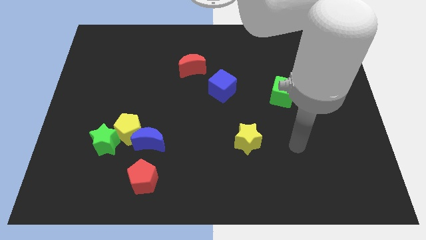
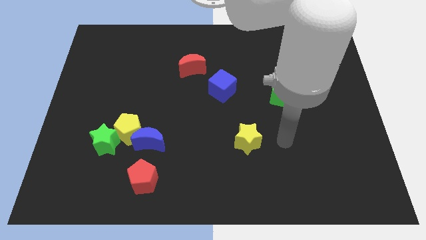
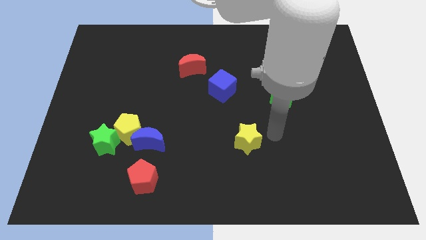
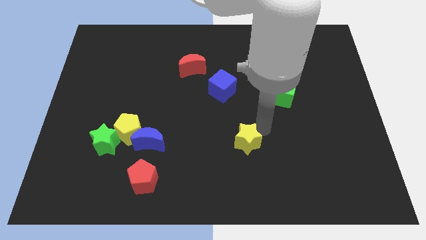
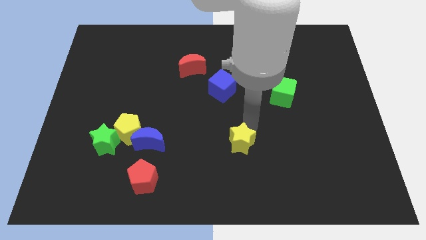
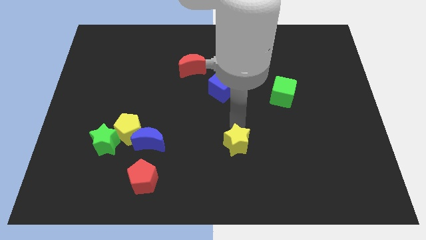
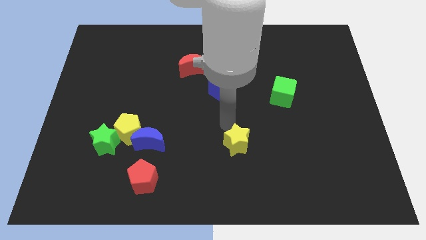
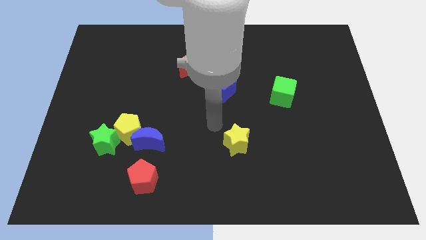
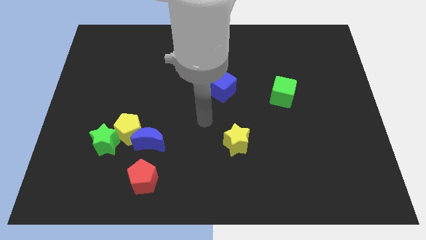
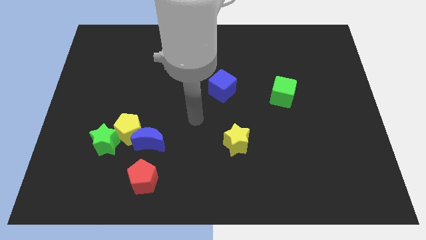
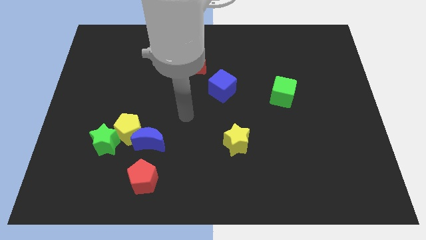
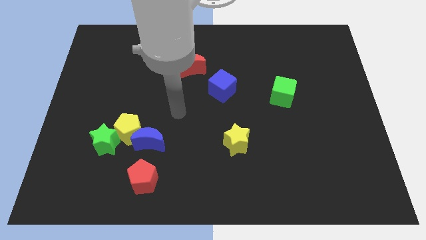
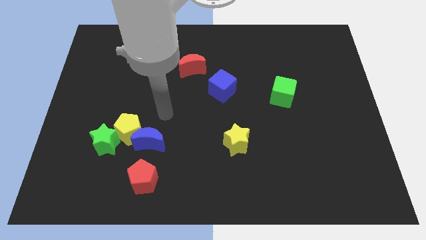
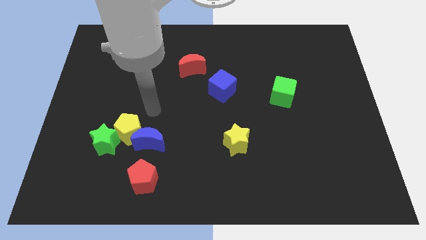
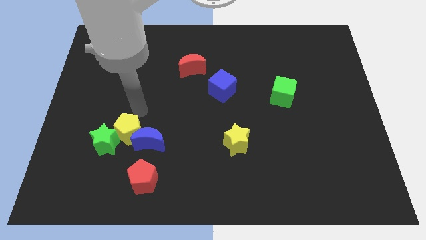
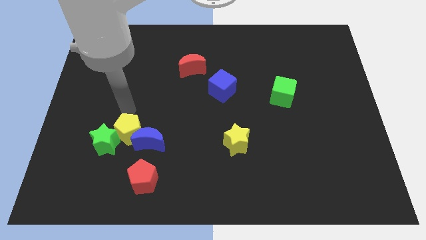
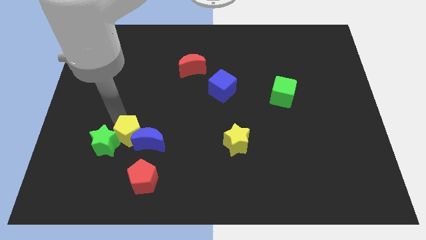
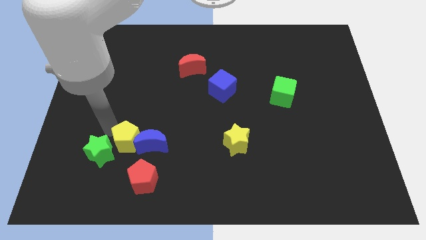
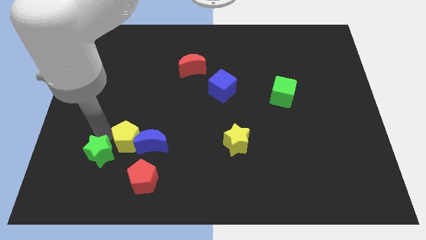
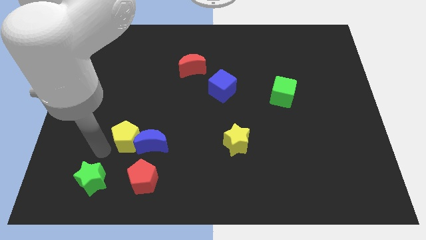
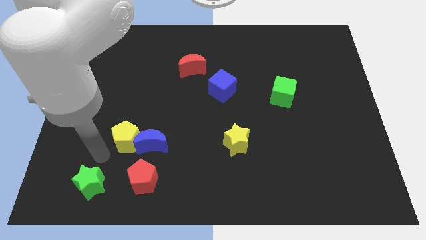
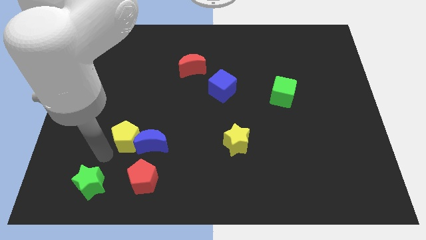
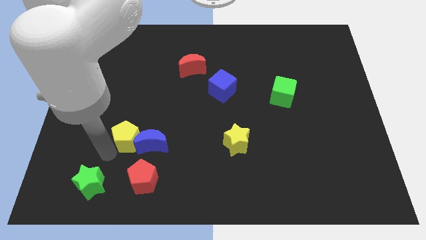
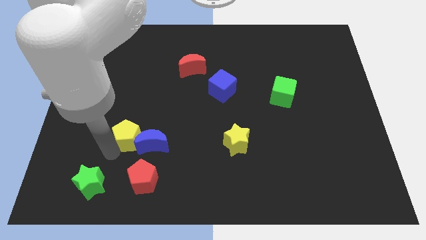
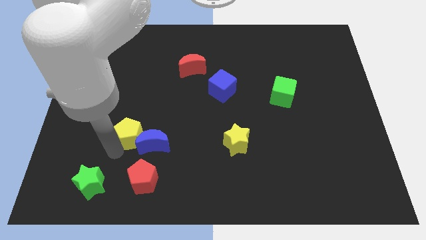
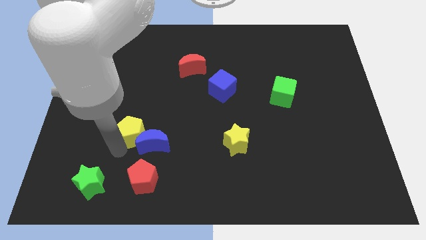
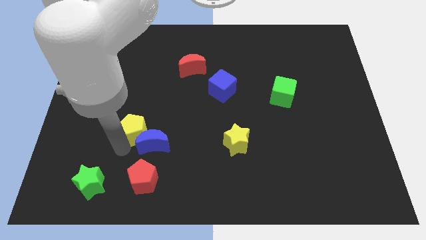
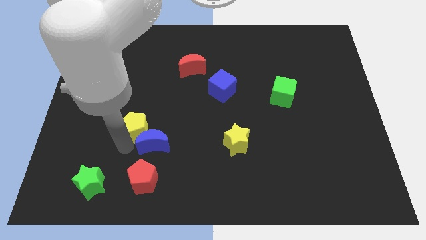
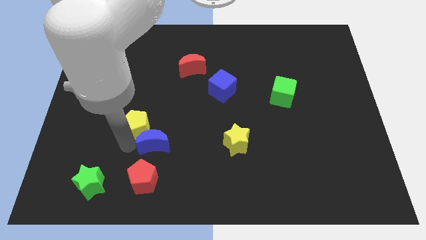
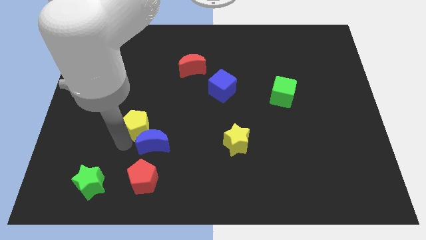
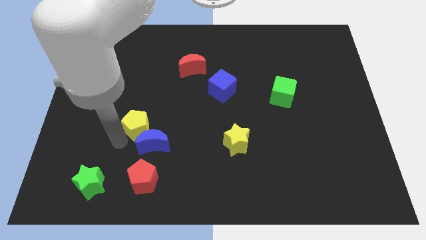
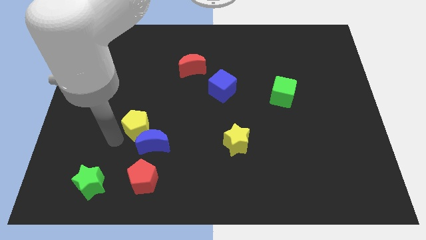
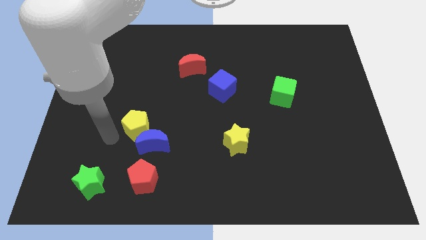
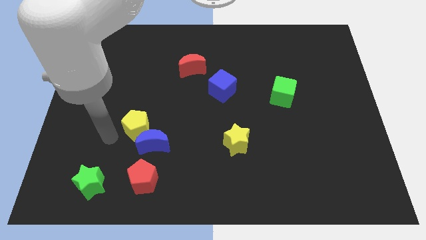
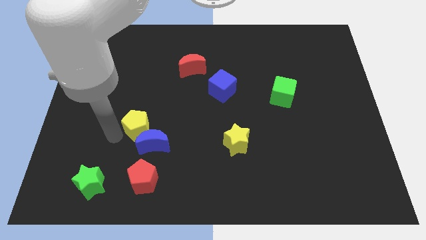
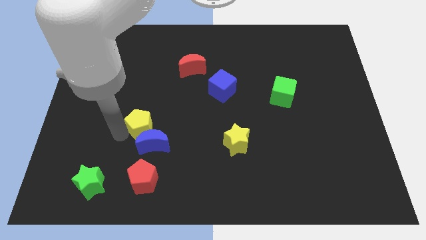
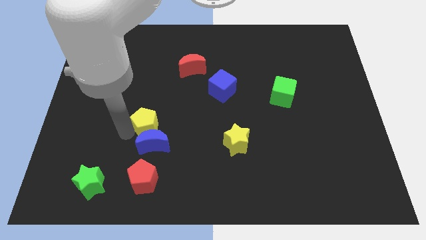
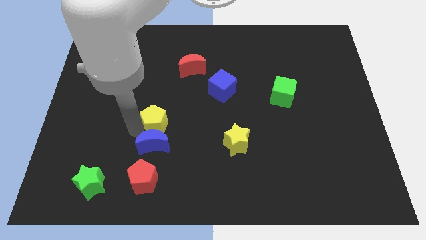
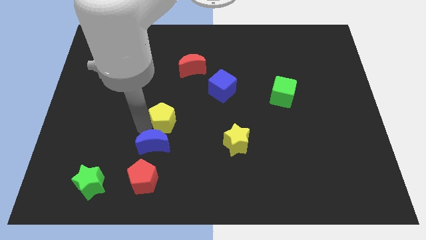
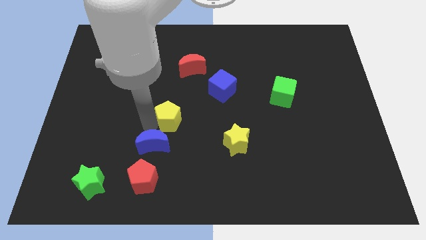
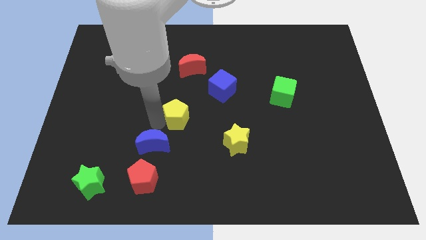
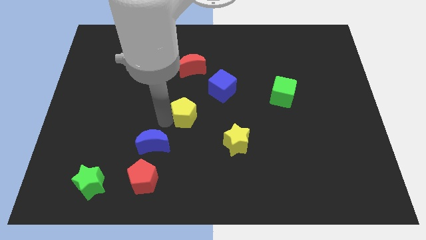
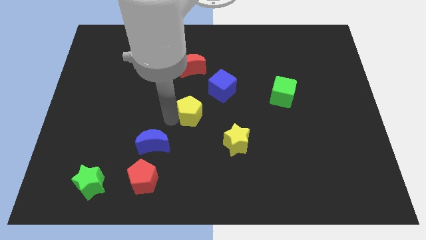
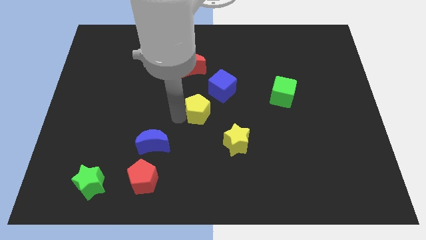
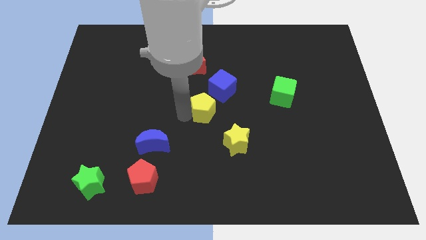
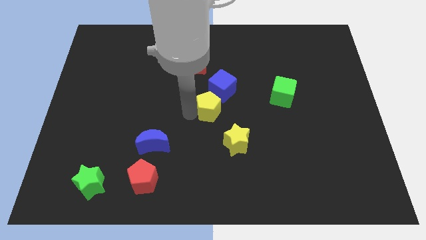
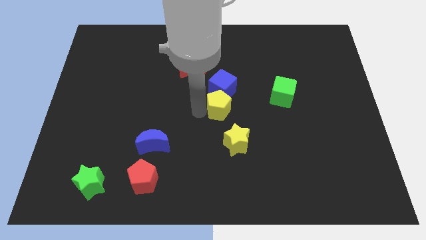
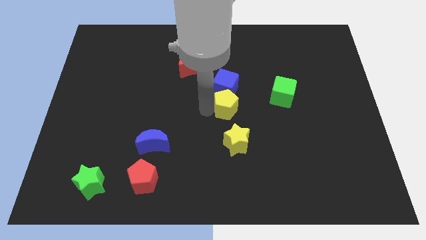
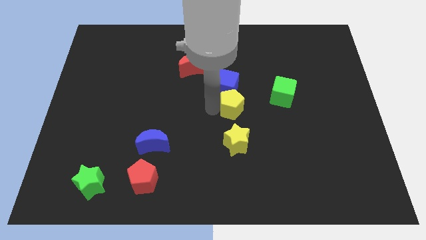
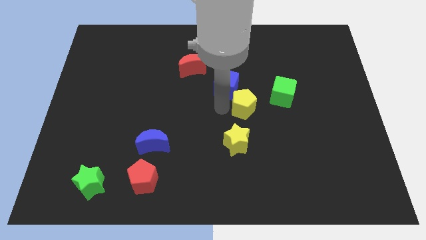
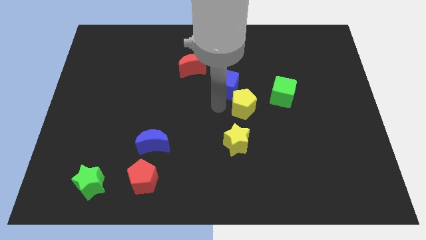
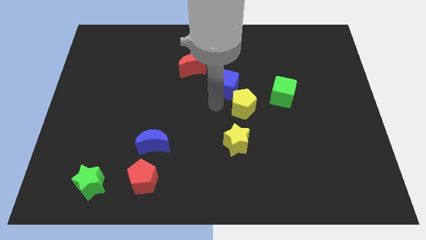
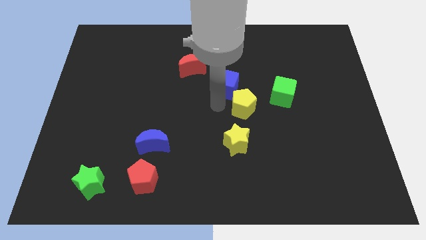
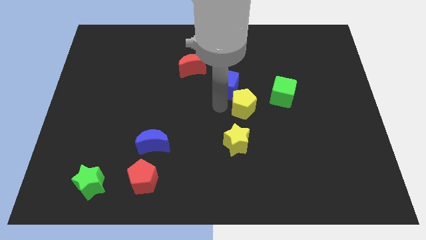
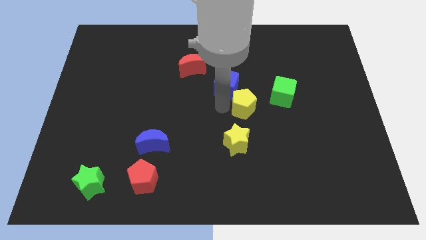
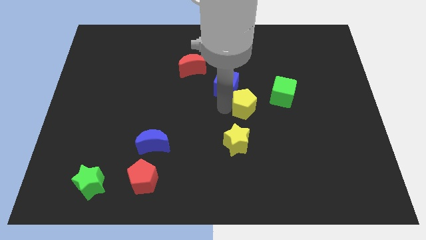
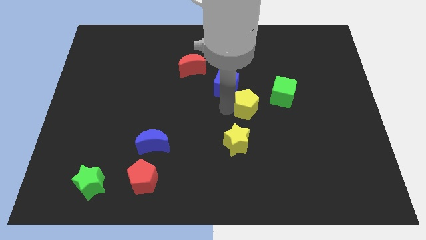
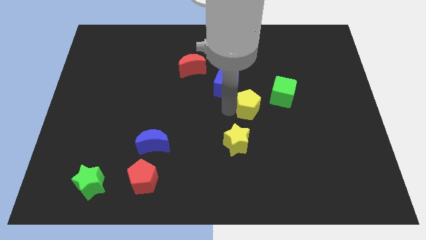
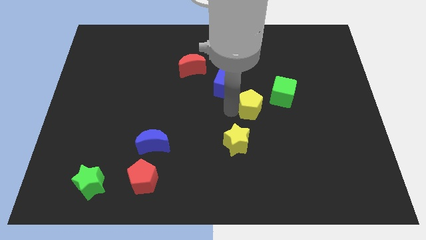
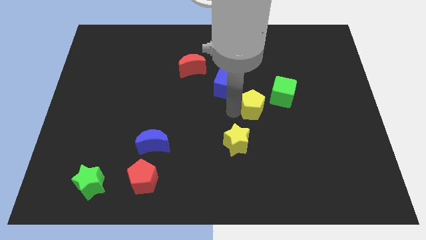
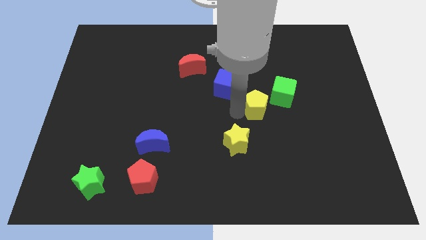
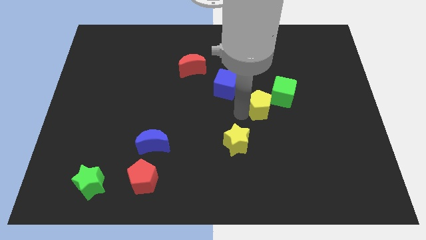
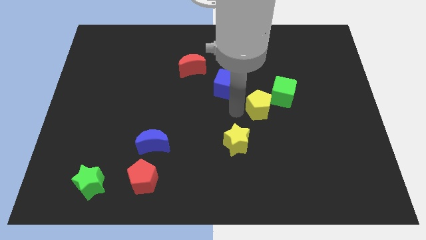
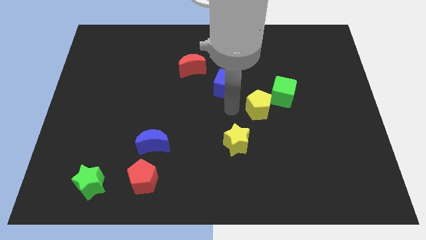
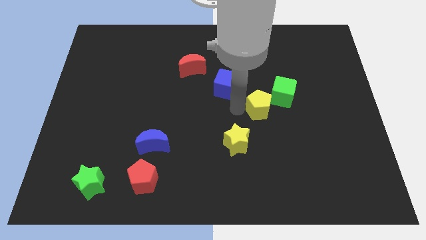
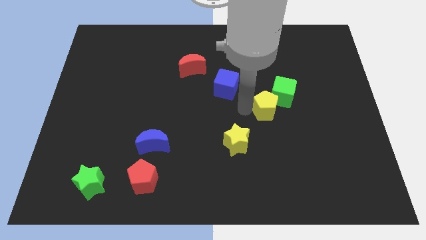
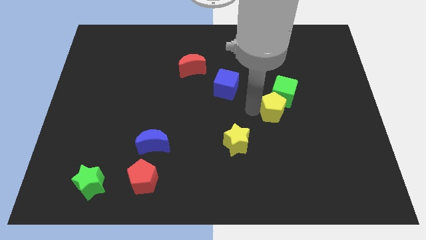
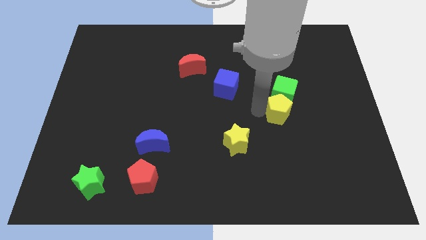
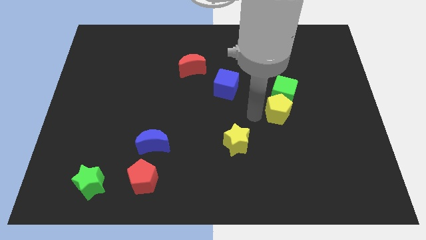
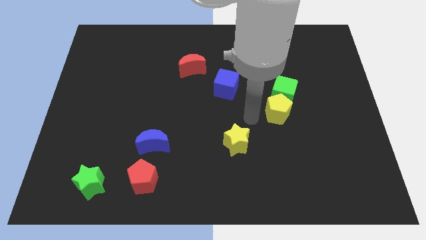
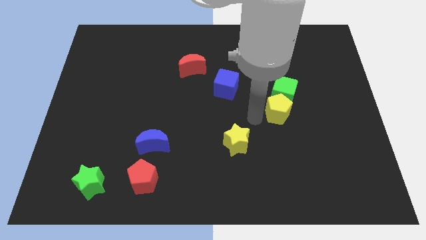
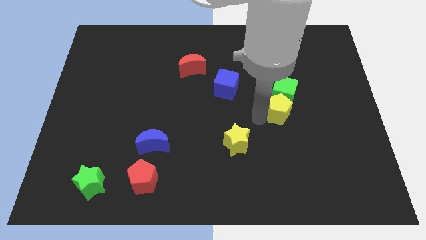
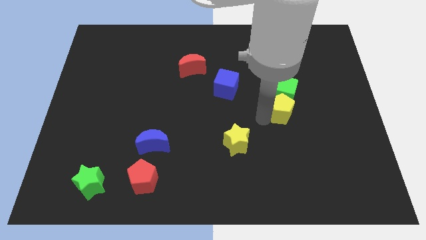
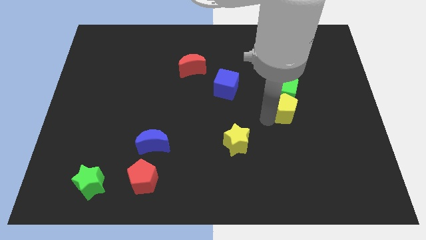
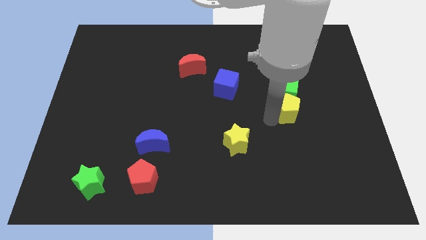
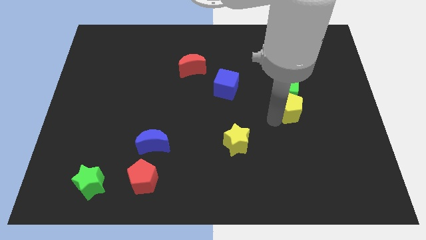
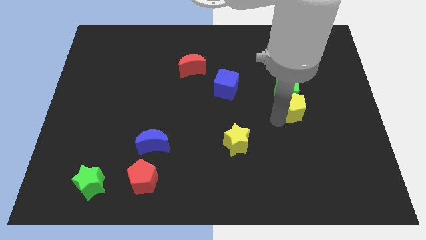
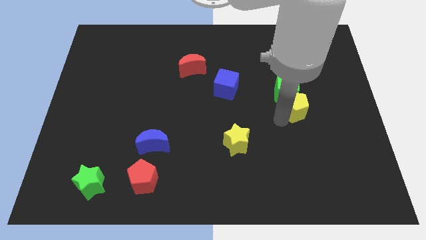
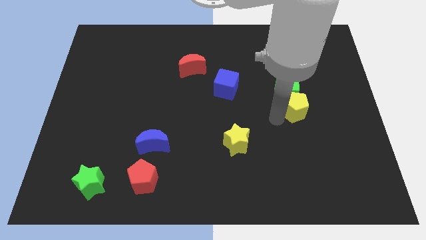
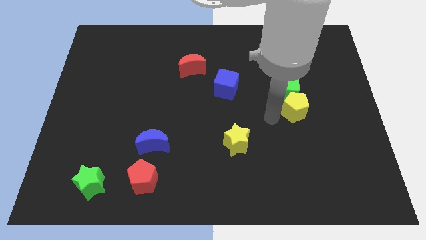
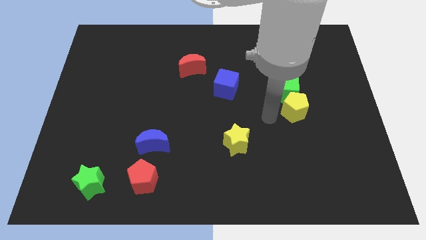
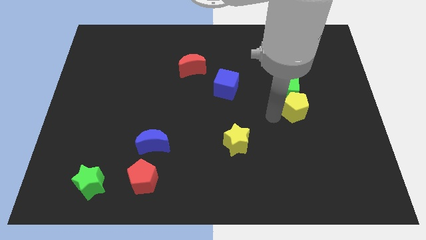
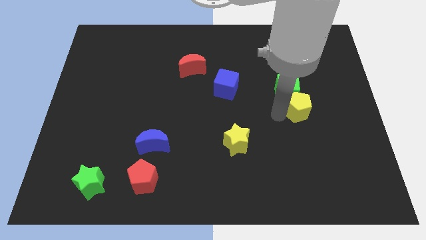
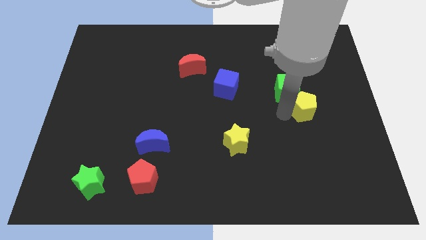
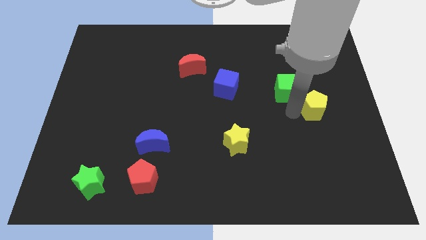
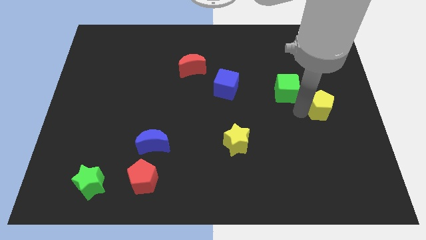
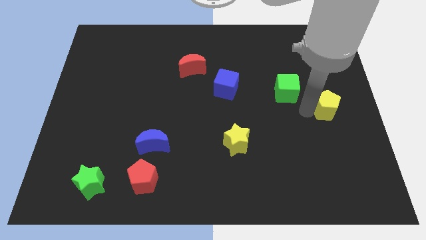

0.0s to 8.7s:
put the yellow pentagon to the center right
